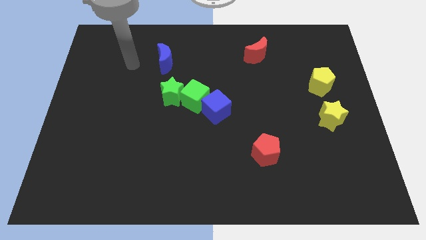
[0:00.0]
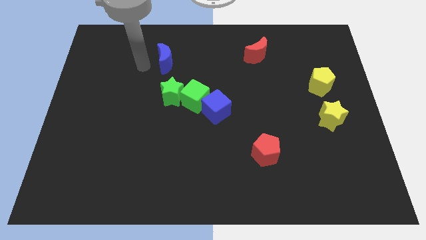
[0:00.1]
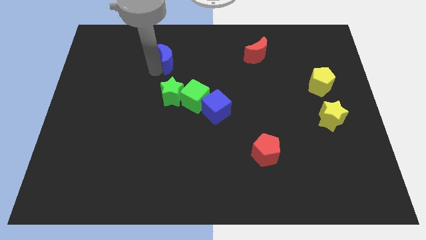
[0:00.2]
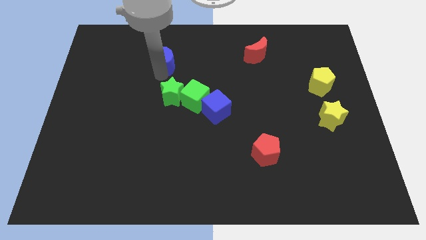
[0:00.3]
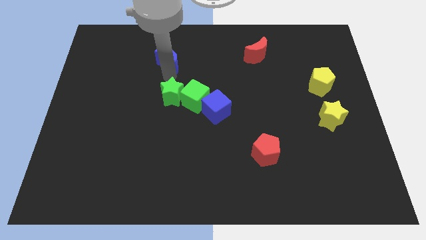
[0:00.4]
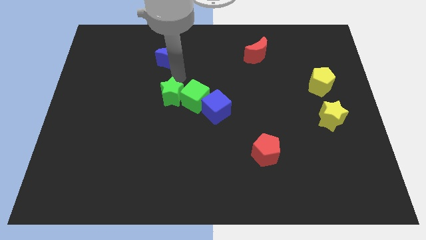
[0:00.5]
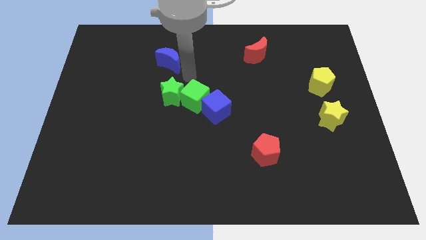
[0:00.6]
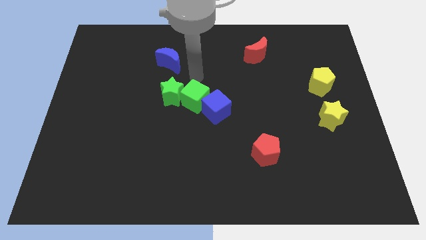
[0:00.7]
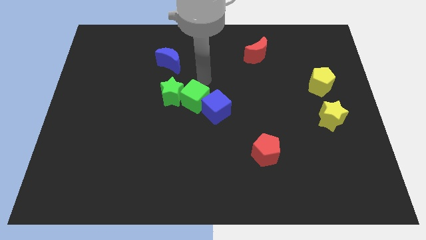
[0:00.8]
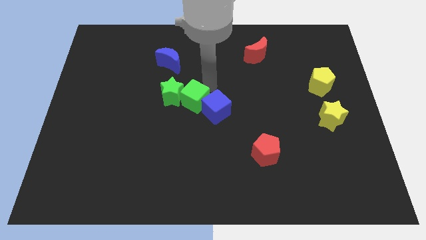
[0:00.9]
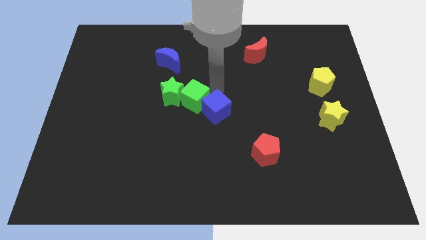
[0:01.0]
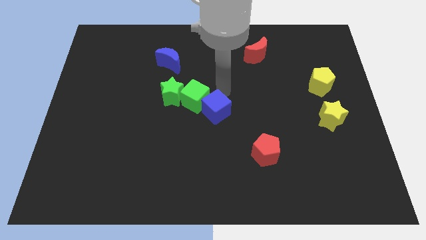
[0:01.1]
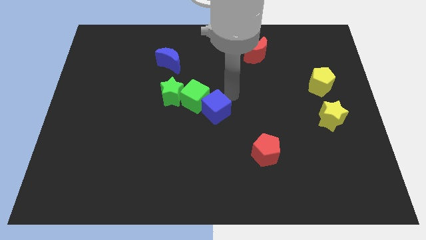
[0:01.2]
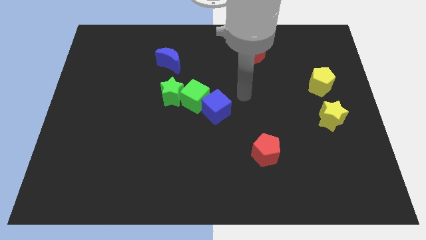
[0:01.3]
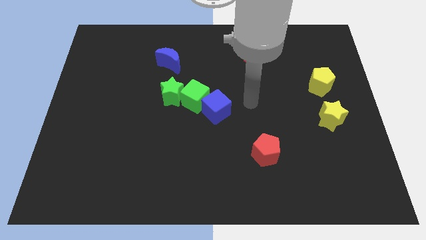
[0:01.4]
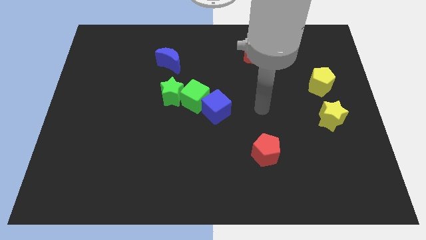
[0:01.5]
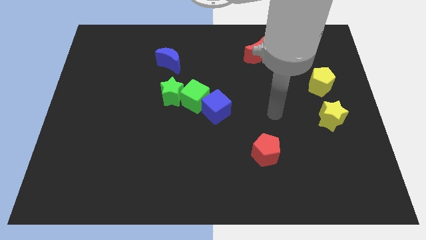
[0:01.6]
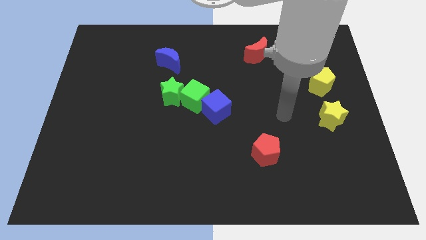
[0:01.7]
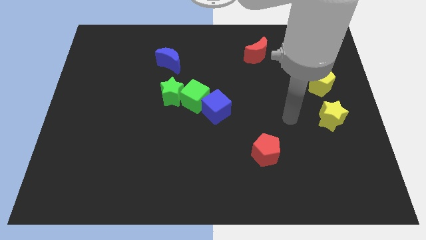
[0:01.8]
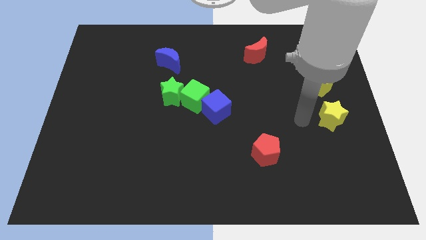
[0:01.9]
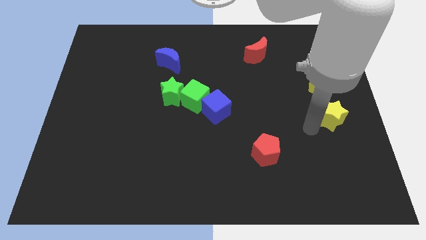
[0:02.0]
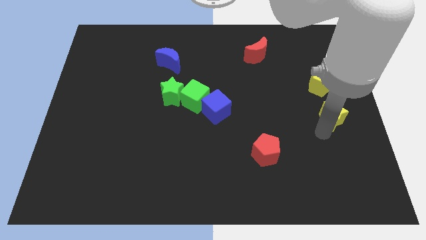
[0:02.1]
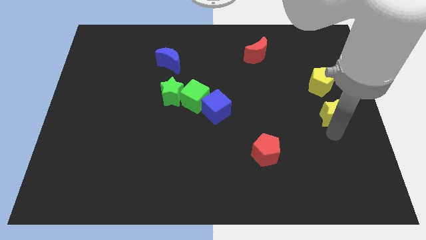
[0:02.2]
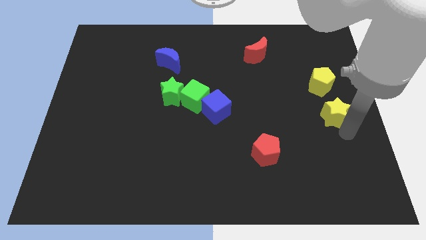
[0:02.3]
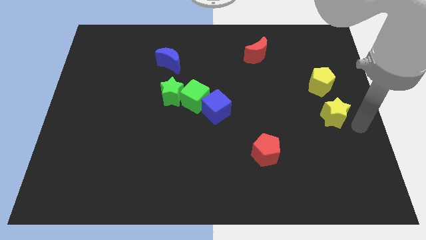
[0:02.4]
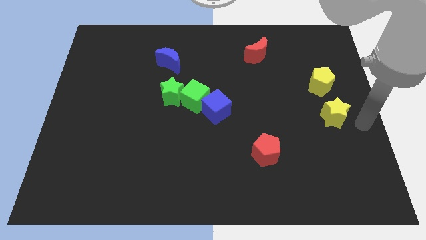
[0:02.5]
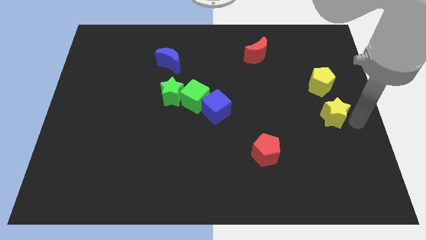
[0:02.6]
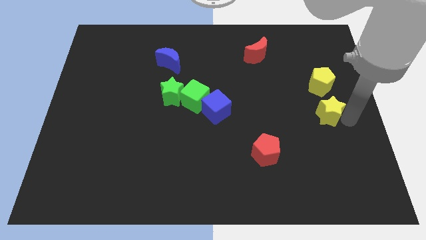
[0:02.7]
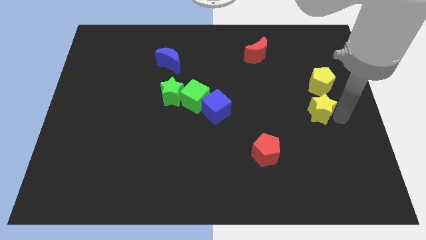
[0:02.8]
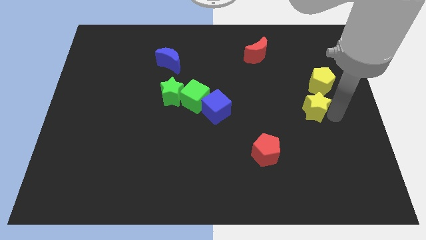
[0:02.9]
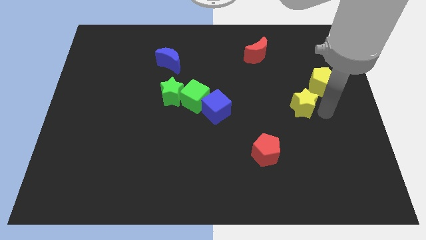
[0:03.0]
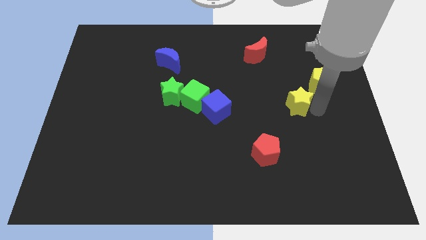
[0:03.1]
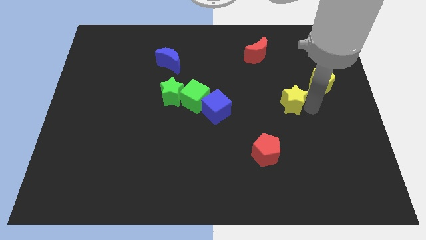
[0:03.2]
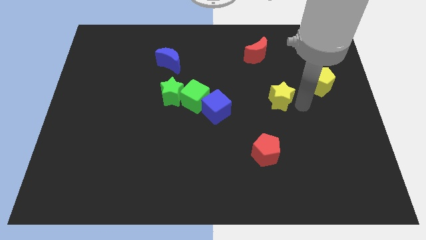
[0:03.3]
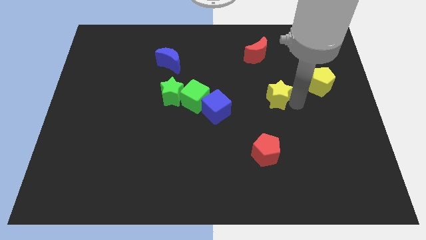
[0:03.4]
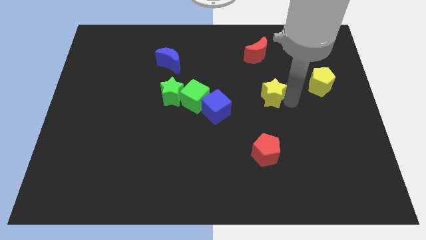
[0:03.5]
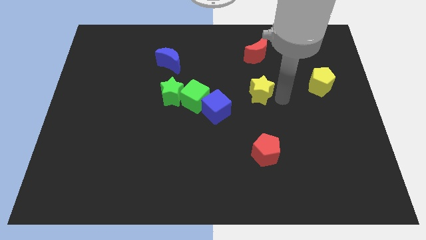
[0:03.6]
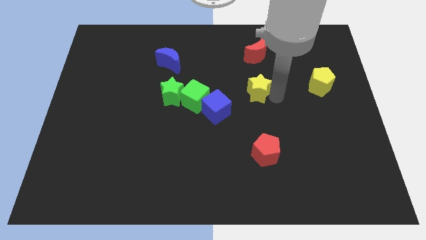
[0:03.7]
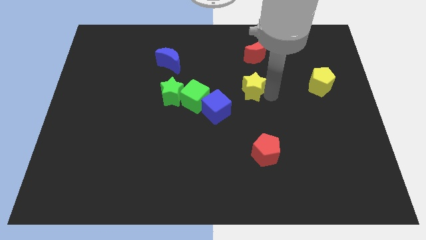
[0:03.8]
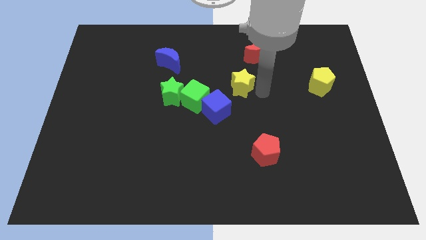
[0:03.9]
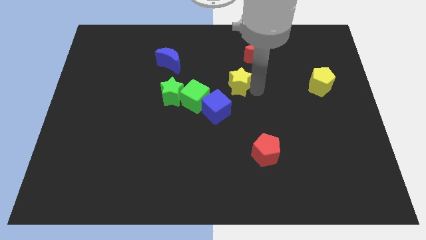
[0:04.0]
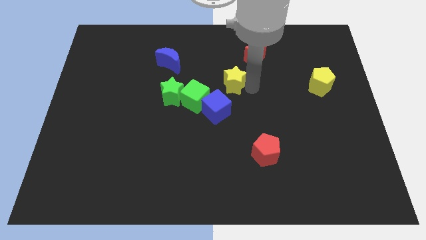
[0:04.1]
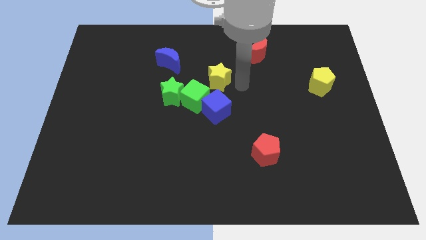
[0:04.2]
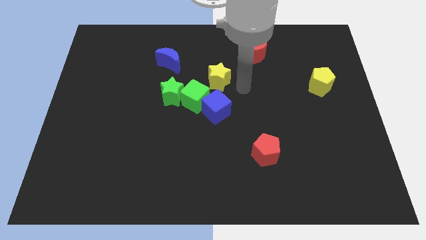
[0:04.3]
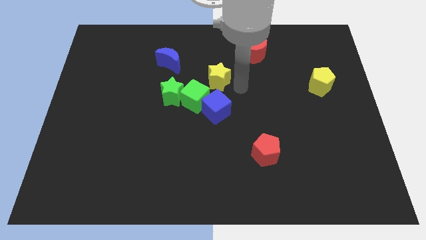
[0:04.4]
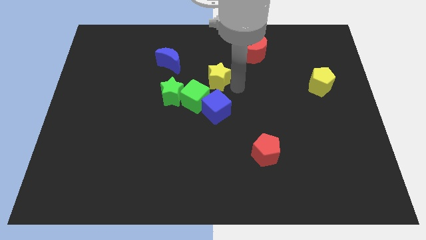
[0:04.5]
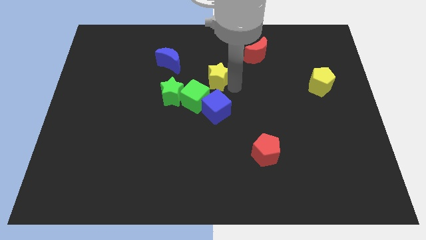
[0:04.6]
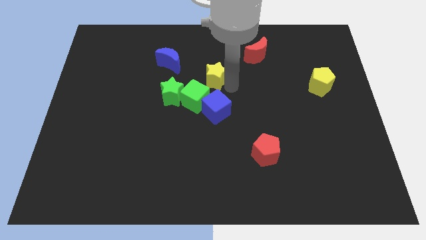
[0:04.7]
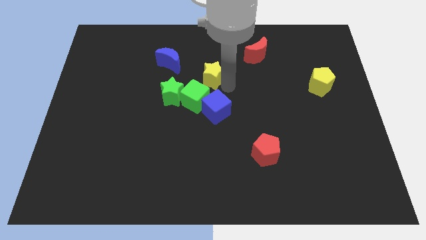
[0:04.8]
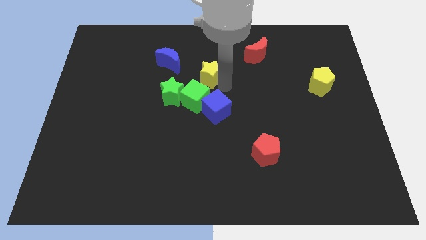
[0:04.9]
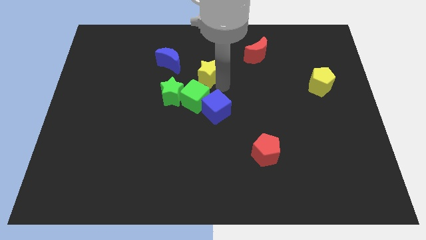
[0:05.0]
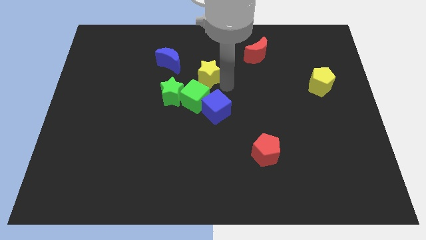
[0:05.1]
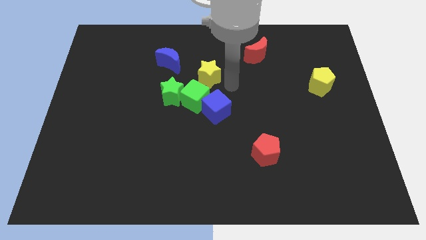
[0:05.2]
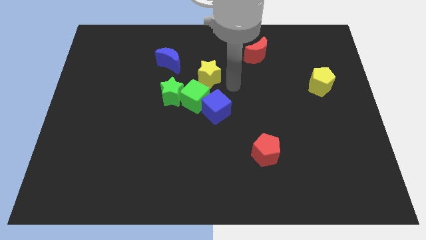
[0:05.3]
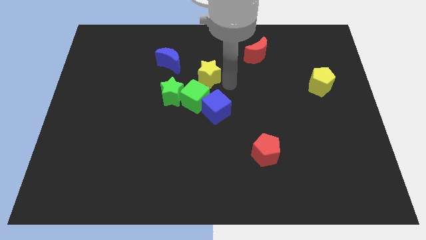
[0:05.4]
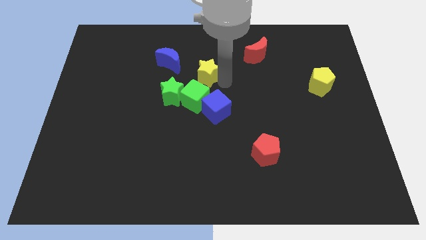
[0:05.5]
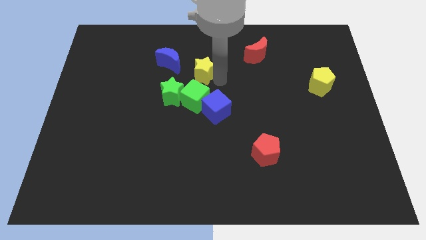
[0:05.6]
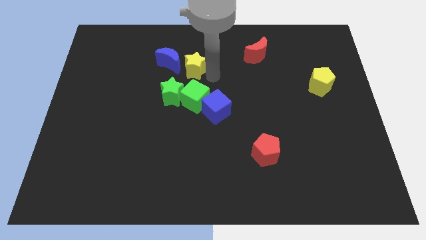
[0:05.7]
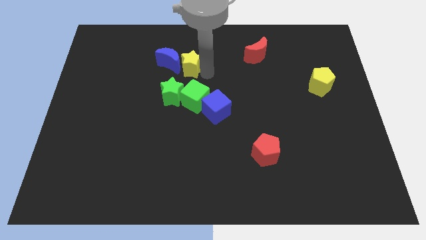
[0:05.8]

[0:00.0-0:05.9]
put the yellow star close to the blue moon

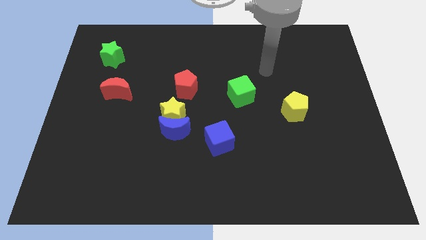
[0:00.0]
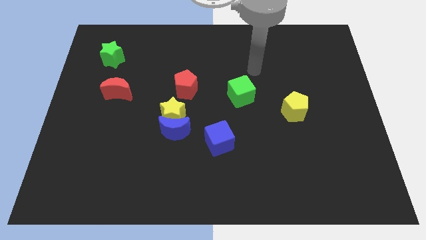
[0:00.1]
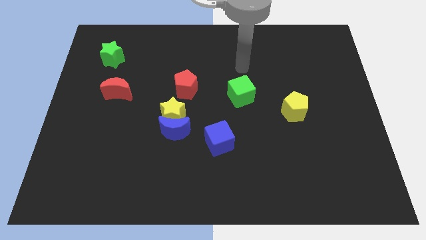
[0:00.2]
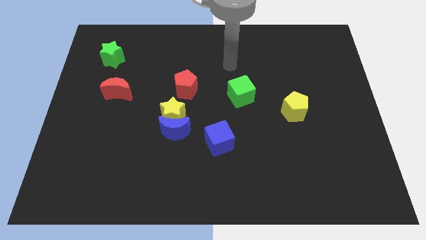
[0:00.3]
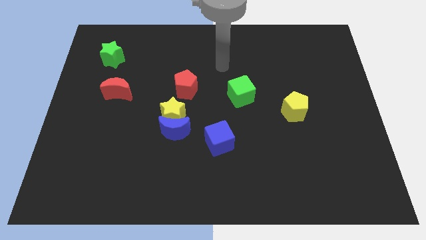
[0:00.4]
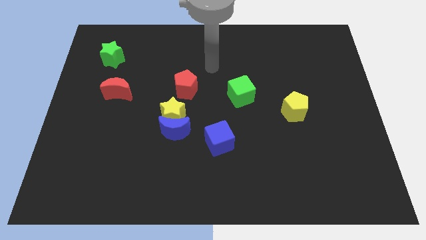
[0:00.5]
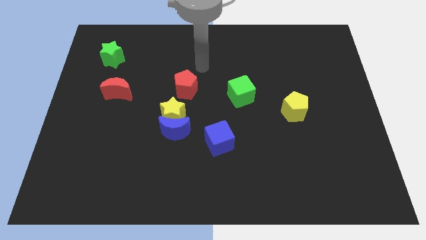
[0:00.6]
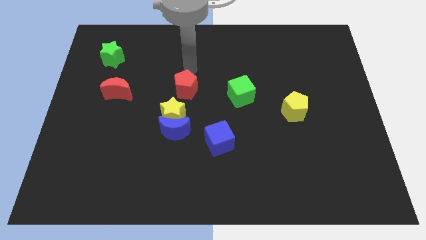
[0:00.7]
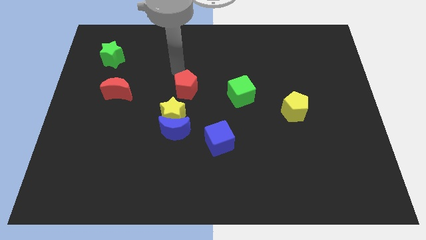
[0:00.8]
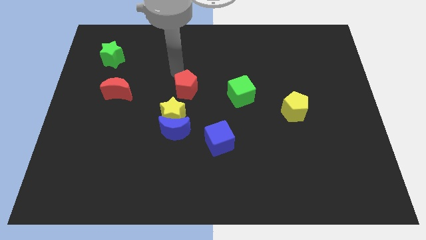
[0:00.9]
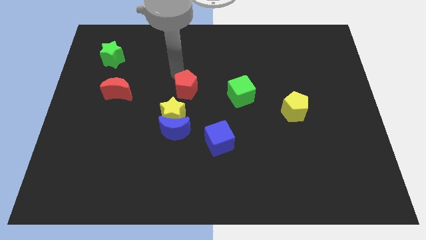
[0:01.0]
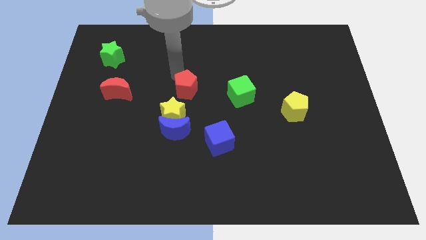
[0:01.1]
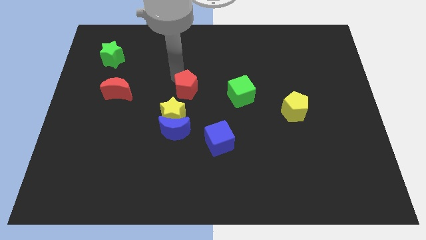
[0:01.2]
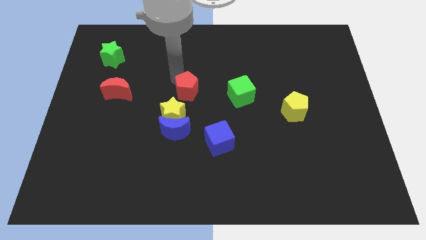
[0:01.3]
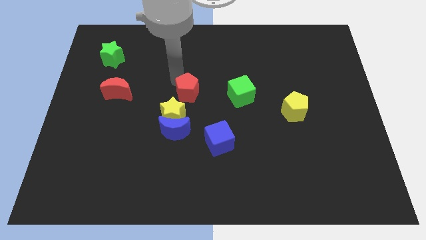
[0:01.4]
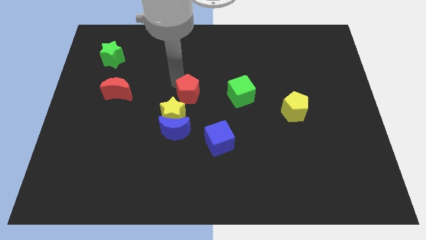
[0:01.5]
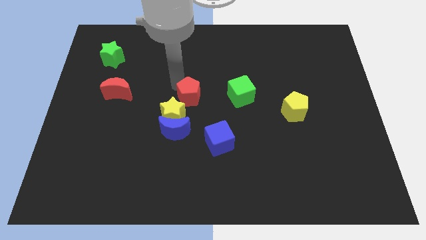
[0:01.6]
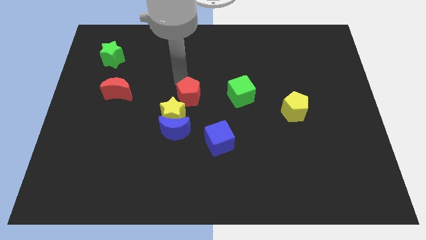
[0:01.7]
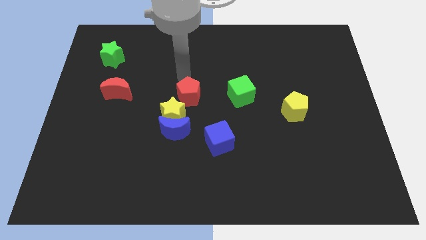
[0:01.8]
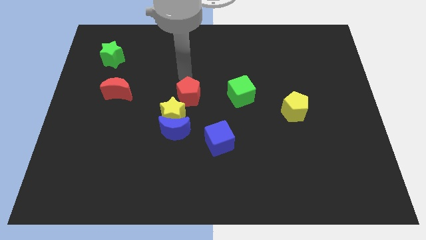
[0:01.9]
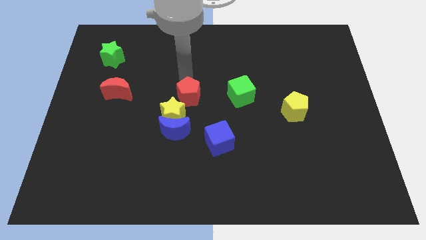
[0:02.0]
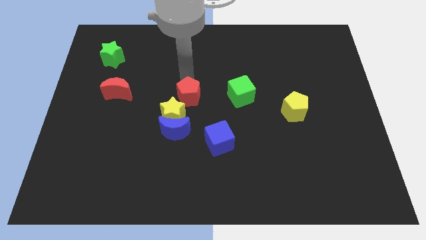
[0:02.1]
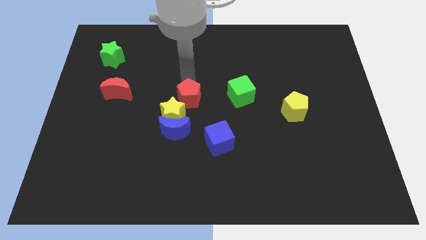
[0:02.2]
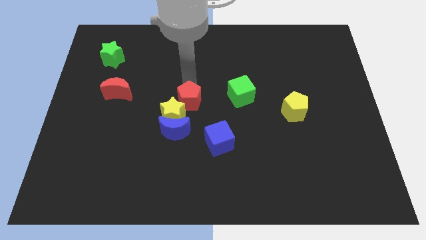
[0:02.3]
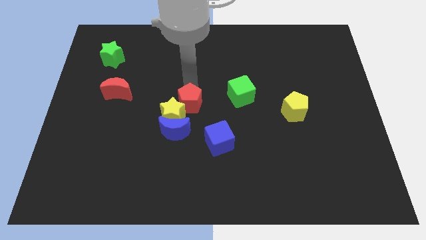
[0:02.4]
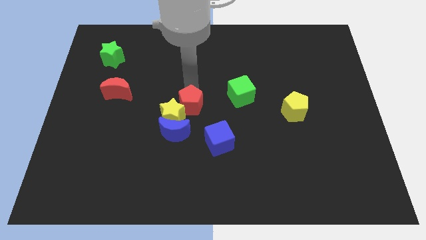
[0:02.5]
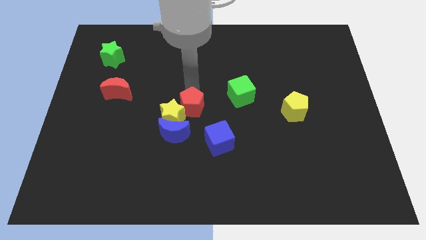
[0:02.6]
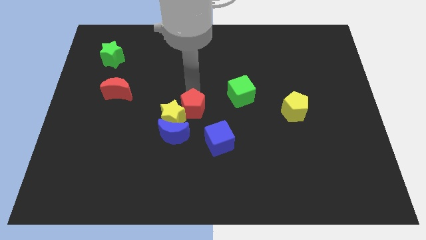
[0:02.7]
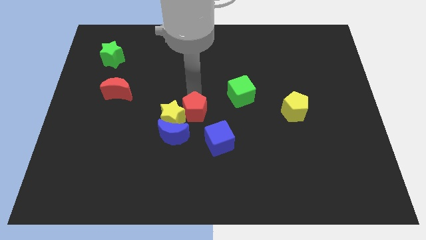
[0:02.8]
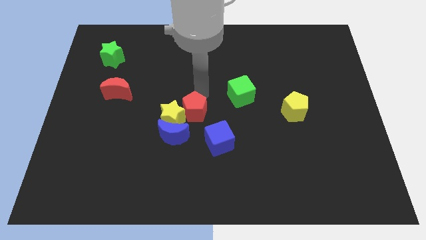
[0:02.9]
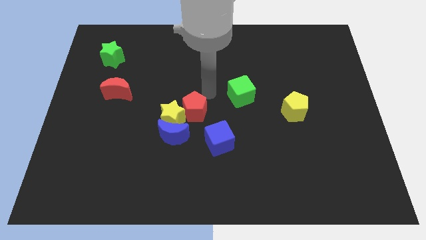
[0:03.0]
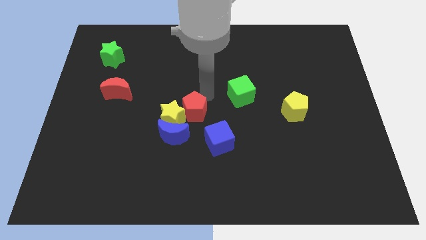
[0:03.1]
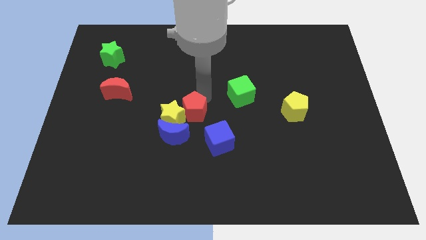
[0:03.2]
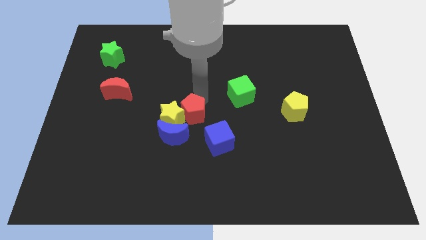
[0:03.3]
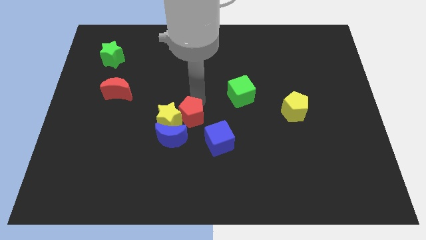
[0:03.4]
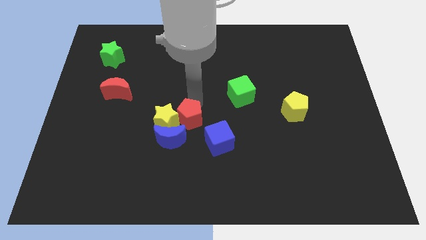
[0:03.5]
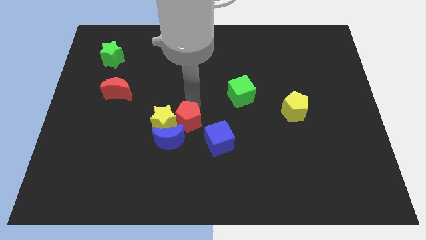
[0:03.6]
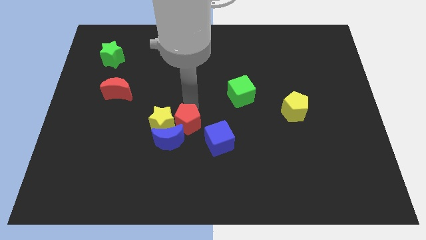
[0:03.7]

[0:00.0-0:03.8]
push the red pentagon towards the blue moon
